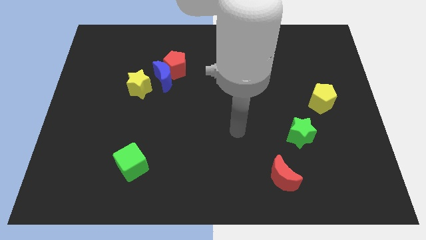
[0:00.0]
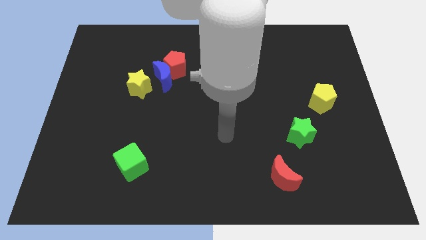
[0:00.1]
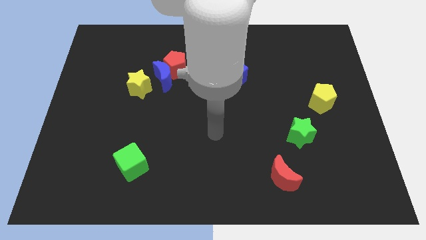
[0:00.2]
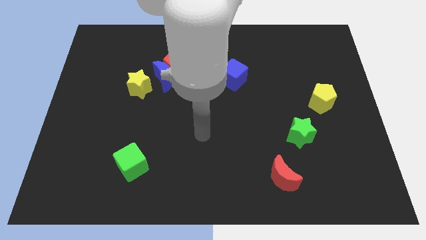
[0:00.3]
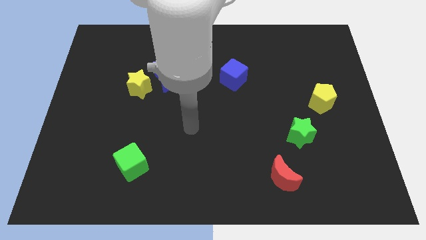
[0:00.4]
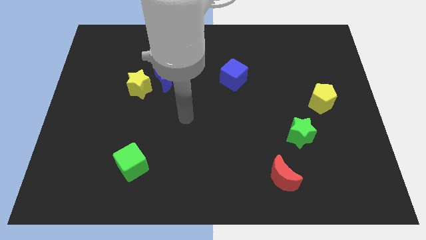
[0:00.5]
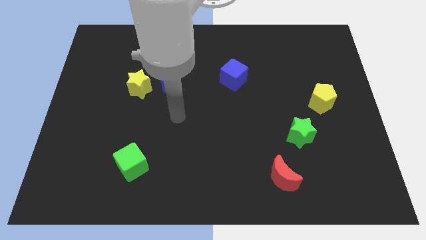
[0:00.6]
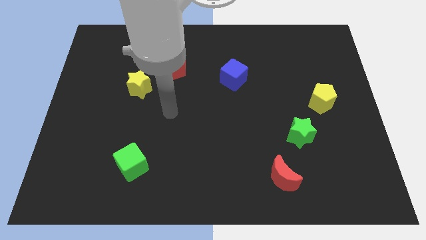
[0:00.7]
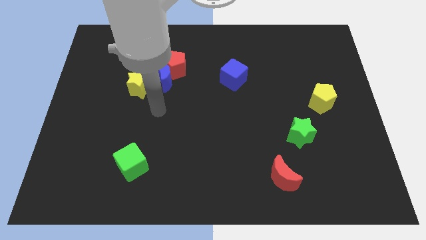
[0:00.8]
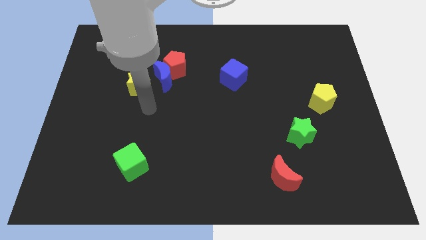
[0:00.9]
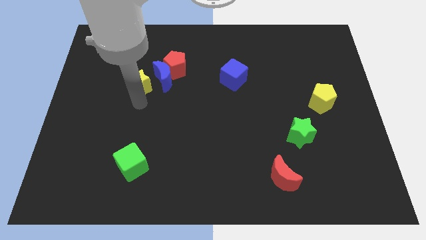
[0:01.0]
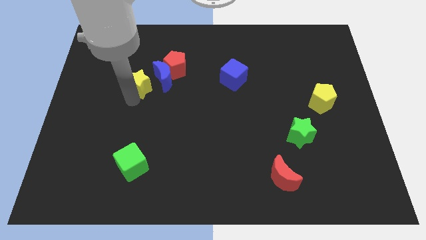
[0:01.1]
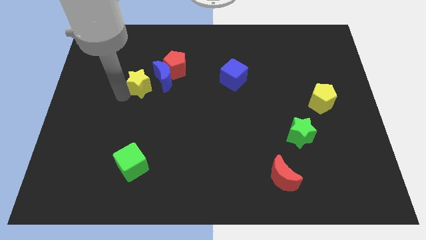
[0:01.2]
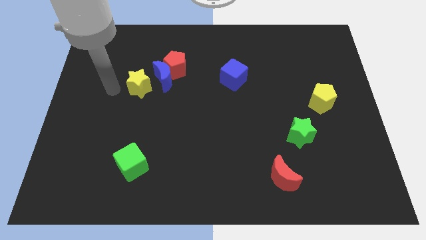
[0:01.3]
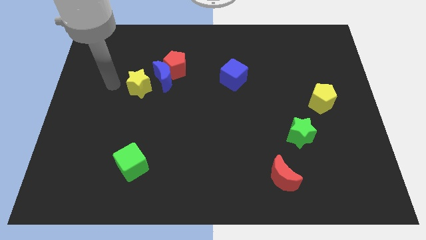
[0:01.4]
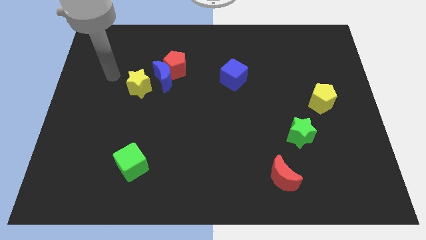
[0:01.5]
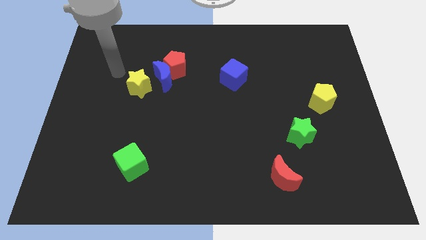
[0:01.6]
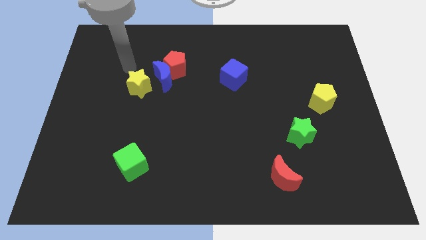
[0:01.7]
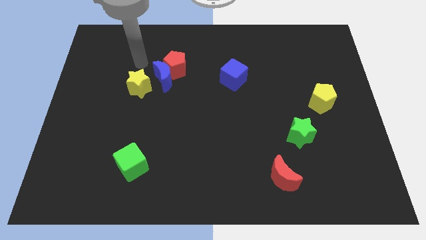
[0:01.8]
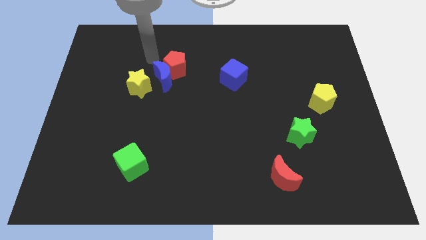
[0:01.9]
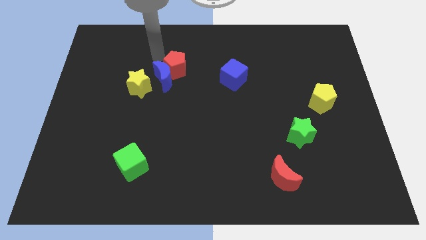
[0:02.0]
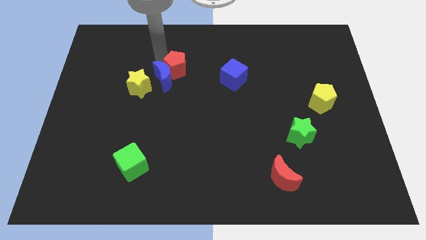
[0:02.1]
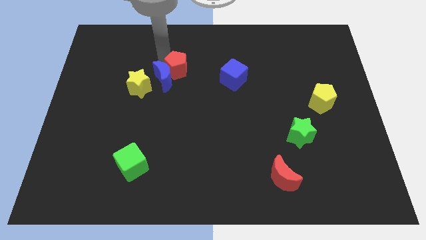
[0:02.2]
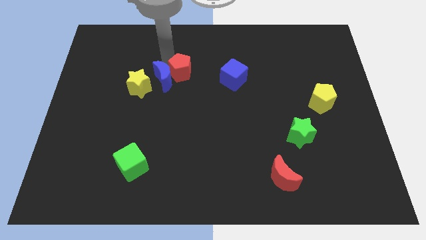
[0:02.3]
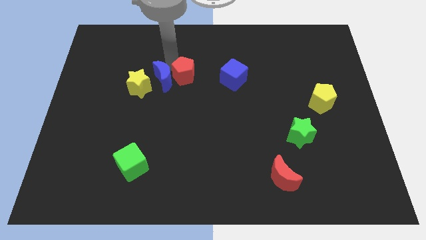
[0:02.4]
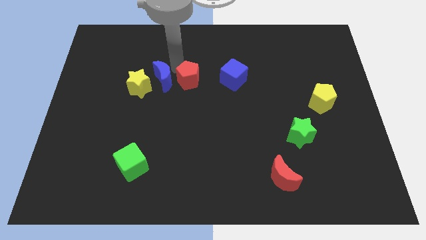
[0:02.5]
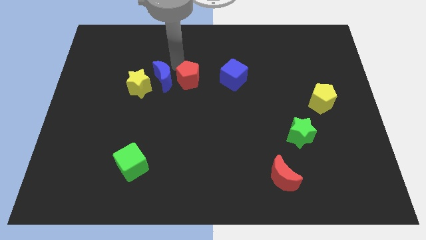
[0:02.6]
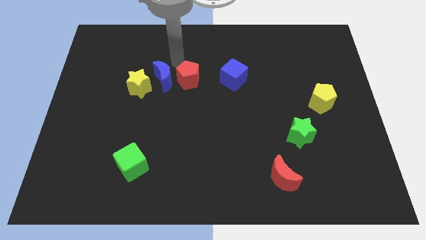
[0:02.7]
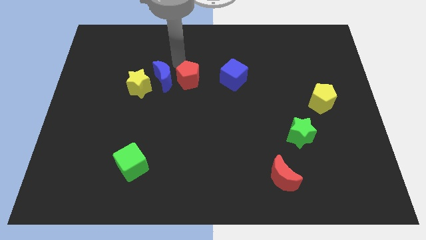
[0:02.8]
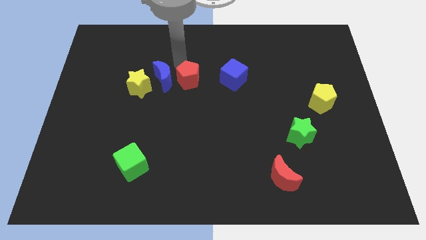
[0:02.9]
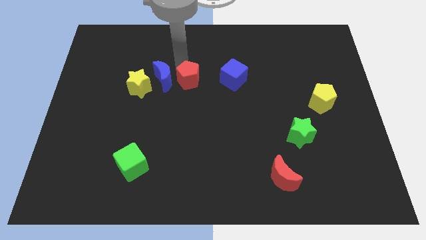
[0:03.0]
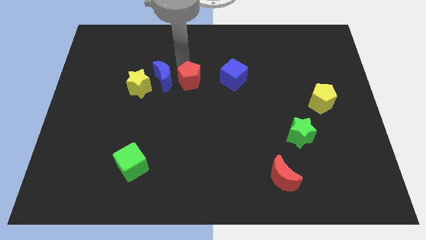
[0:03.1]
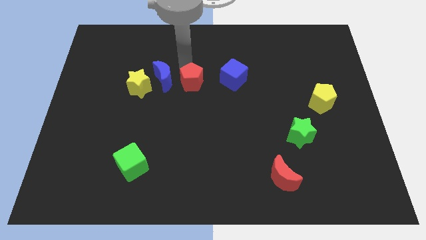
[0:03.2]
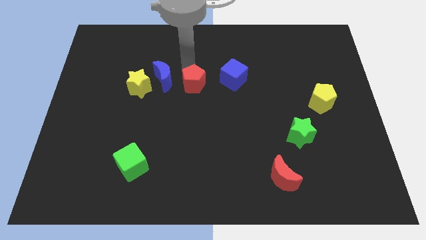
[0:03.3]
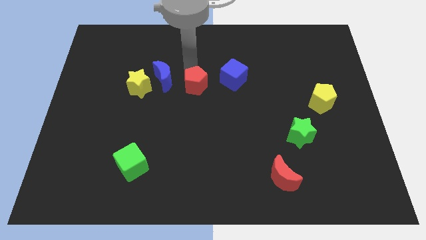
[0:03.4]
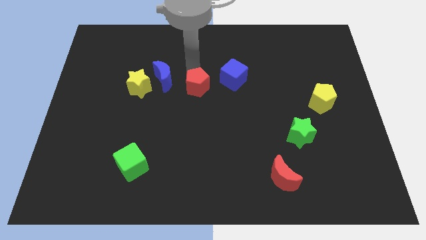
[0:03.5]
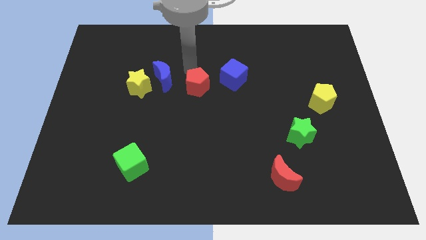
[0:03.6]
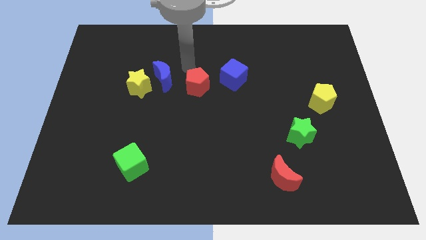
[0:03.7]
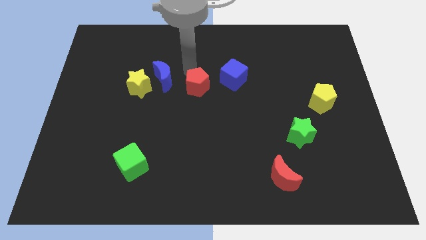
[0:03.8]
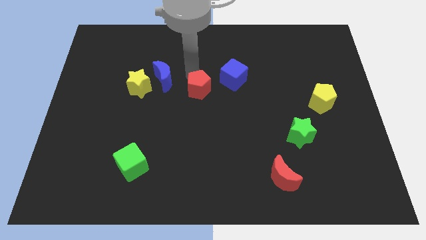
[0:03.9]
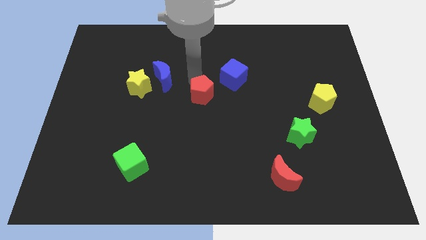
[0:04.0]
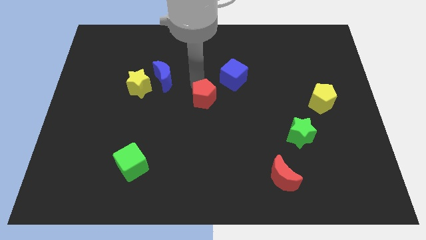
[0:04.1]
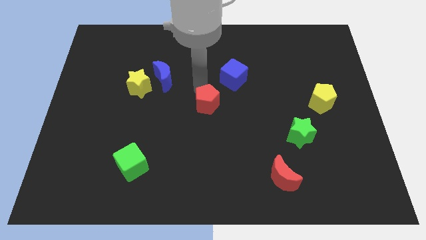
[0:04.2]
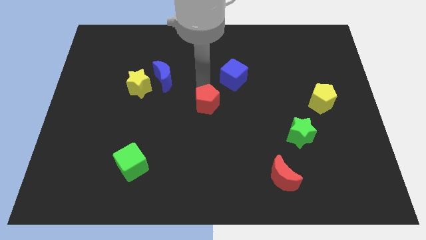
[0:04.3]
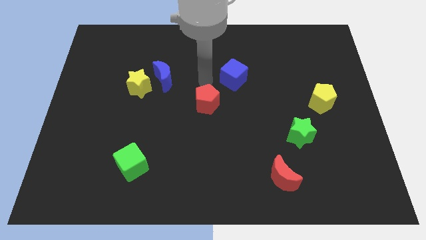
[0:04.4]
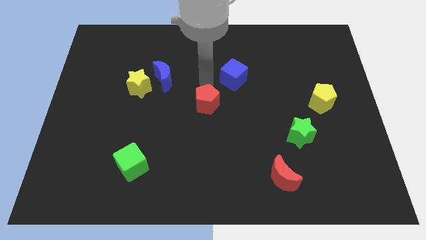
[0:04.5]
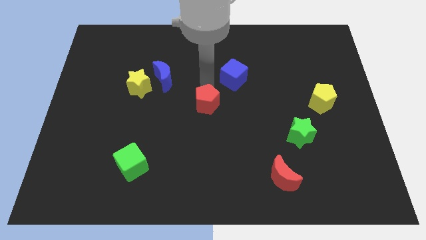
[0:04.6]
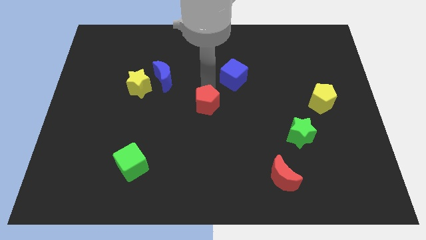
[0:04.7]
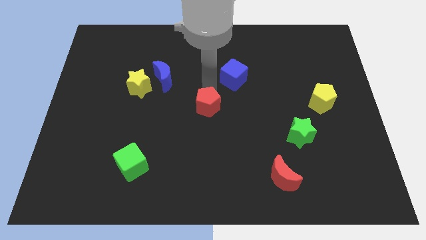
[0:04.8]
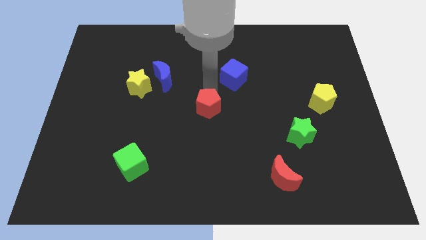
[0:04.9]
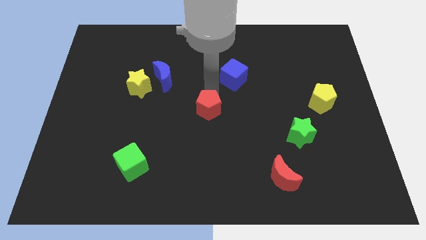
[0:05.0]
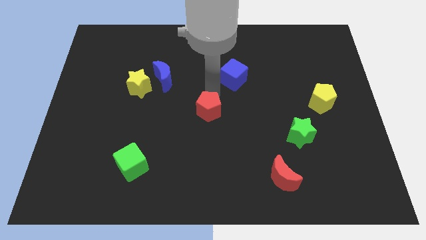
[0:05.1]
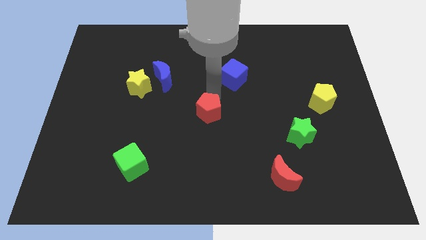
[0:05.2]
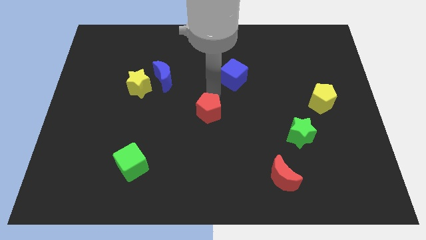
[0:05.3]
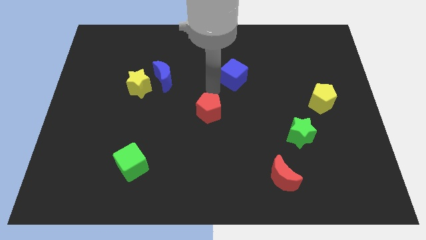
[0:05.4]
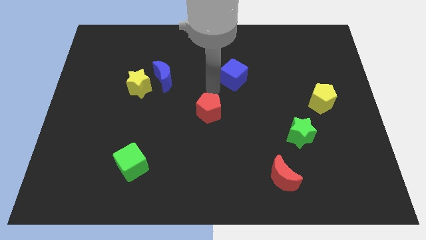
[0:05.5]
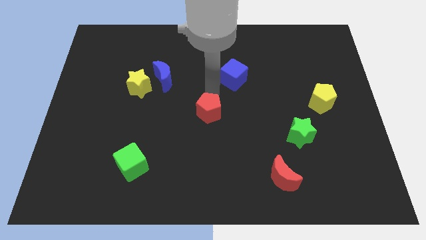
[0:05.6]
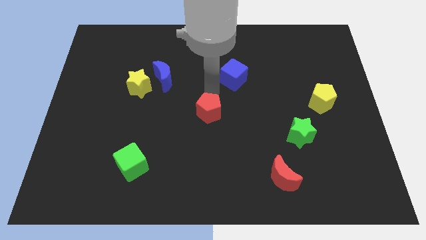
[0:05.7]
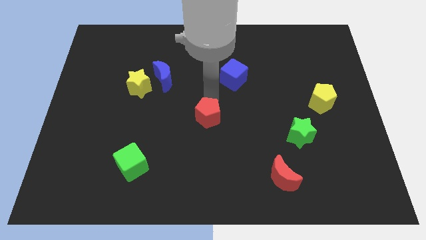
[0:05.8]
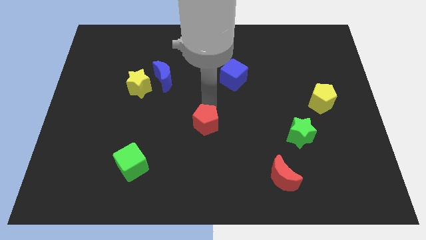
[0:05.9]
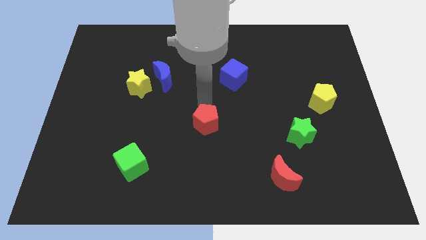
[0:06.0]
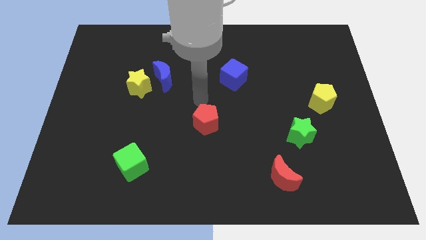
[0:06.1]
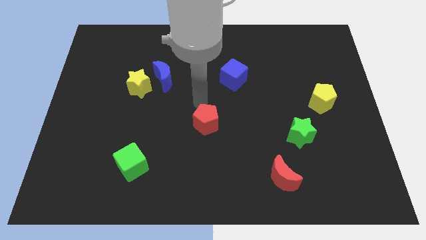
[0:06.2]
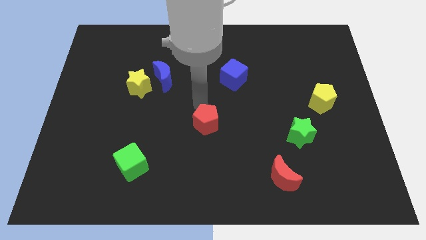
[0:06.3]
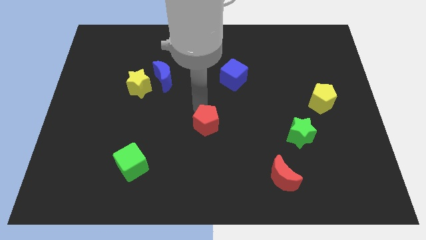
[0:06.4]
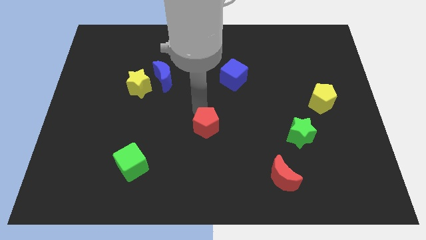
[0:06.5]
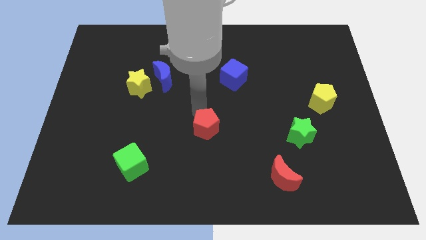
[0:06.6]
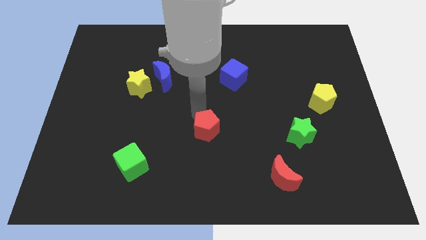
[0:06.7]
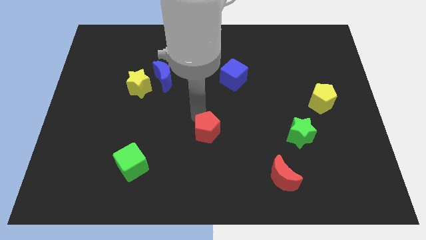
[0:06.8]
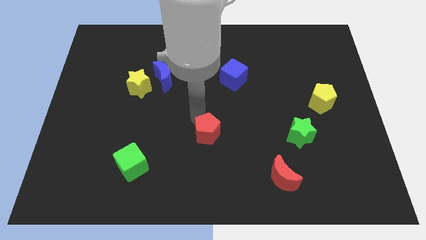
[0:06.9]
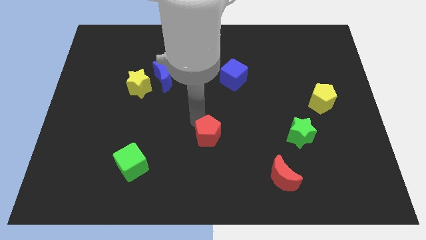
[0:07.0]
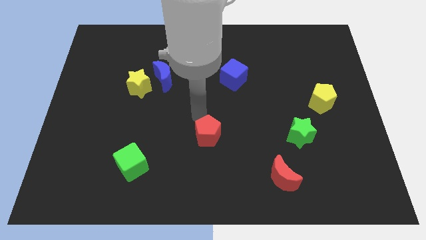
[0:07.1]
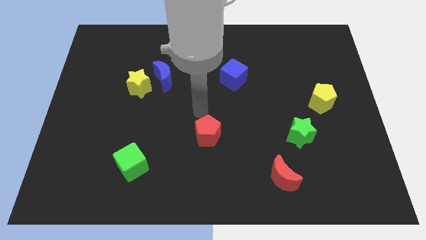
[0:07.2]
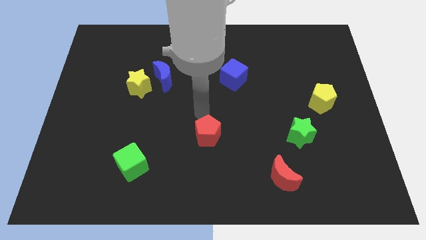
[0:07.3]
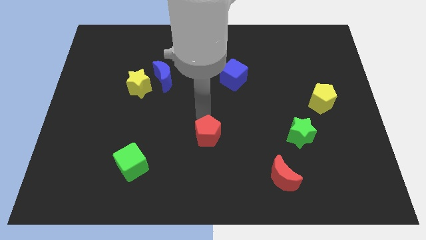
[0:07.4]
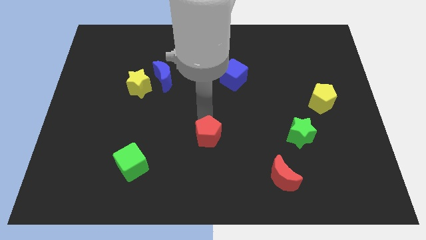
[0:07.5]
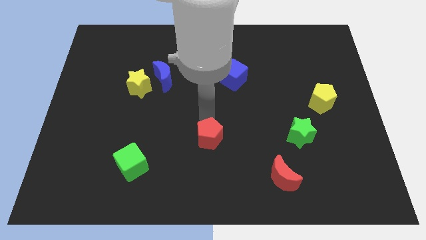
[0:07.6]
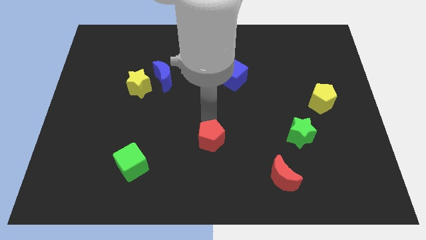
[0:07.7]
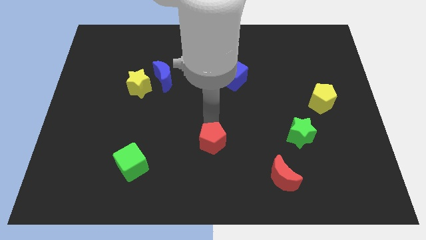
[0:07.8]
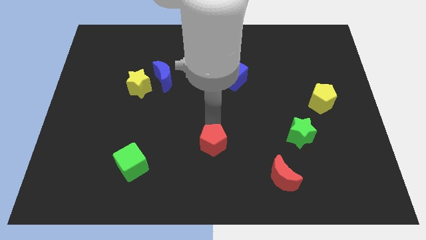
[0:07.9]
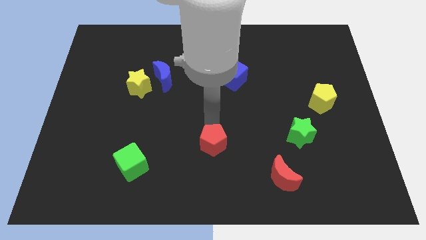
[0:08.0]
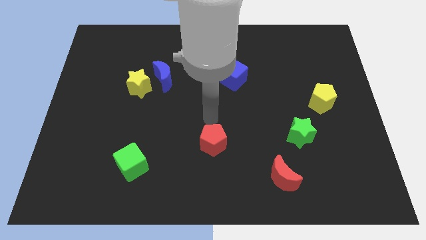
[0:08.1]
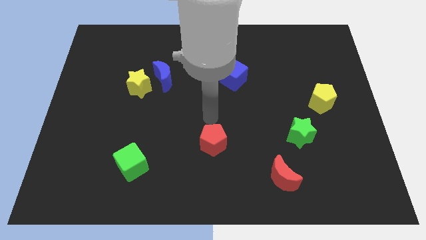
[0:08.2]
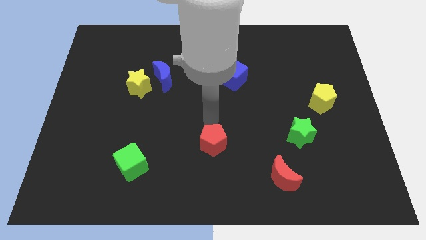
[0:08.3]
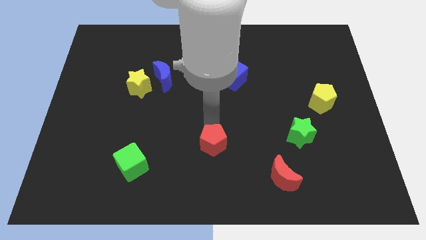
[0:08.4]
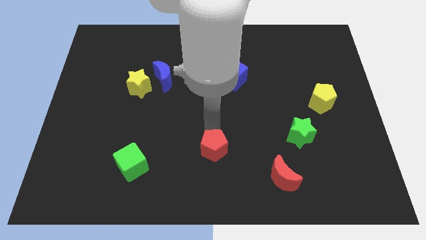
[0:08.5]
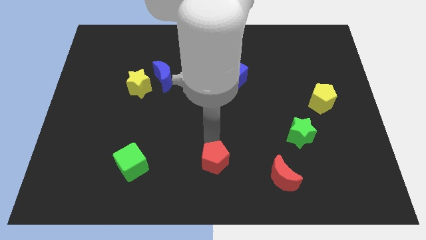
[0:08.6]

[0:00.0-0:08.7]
push the red pentagon left of the red moon
